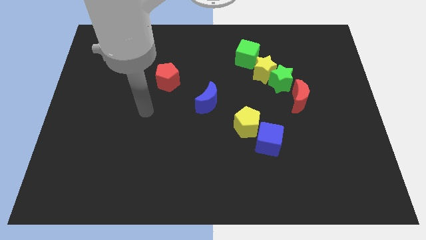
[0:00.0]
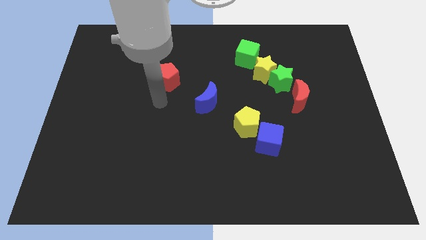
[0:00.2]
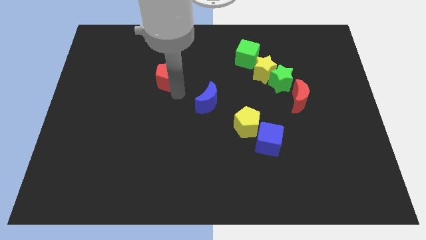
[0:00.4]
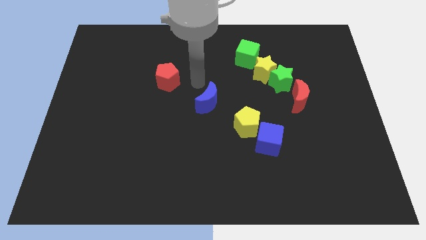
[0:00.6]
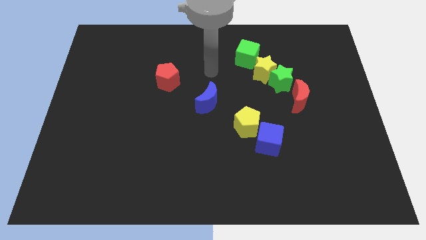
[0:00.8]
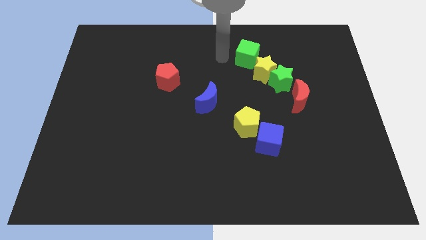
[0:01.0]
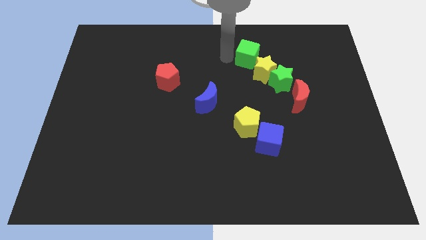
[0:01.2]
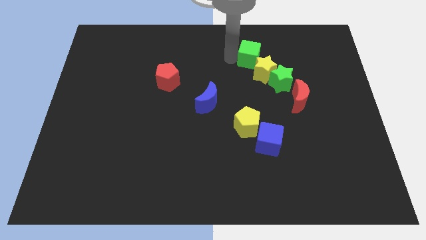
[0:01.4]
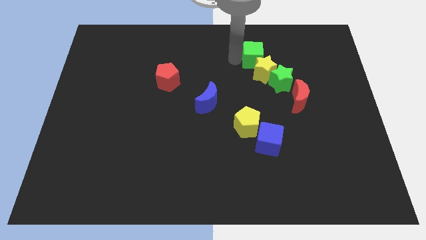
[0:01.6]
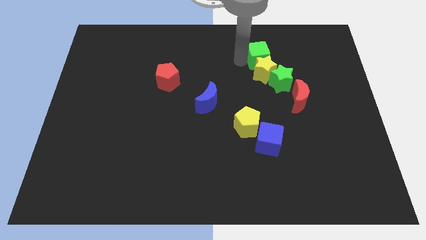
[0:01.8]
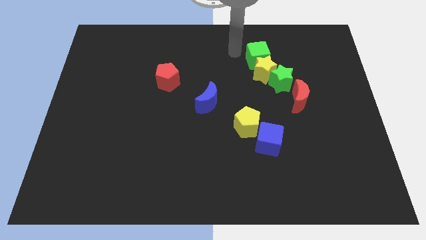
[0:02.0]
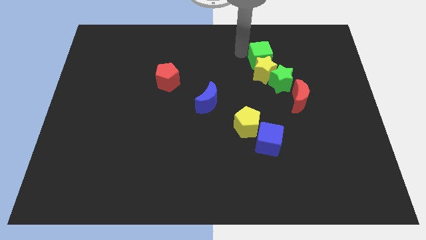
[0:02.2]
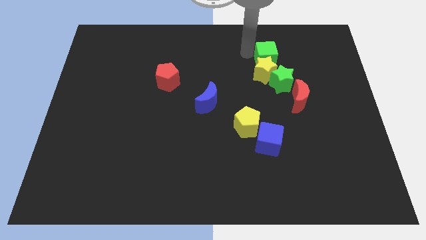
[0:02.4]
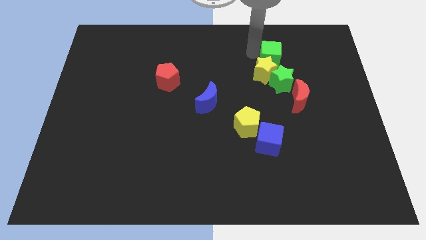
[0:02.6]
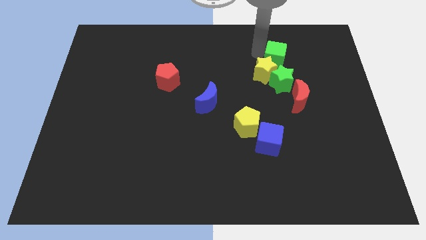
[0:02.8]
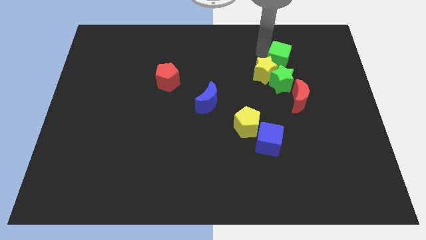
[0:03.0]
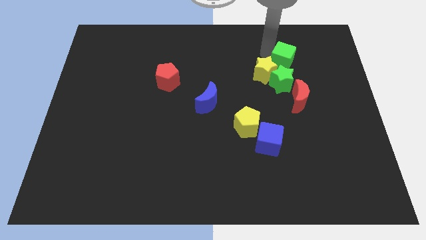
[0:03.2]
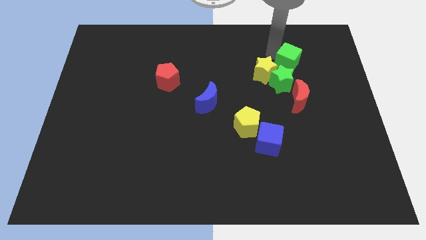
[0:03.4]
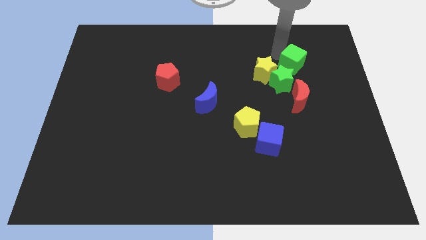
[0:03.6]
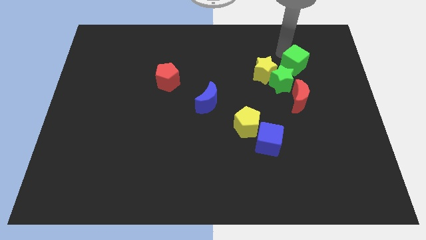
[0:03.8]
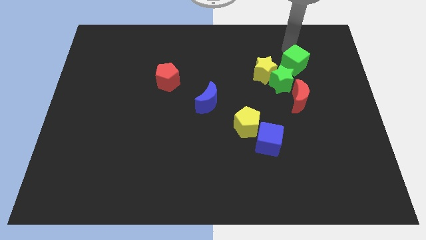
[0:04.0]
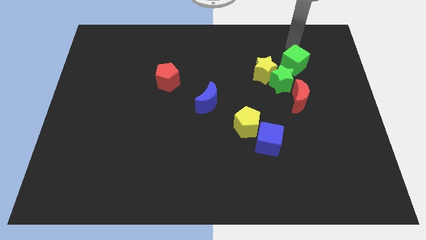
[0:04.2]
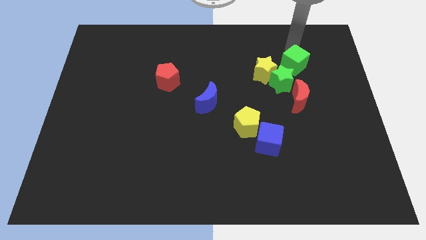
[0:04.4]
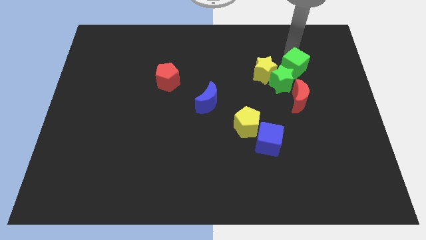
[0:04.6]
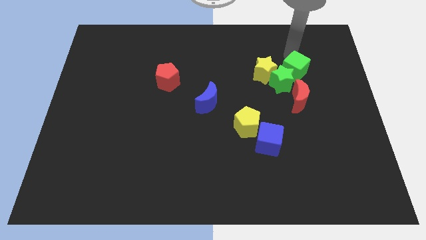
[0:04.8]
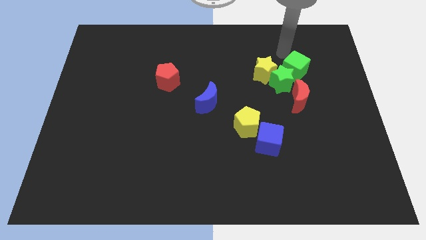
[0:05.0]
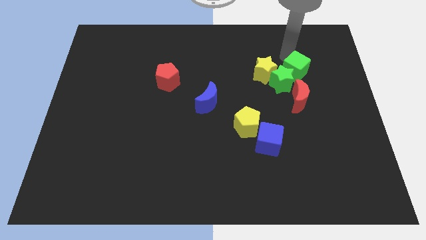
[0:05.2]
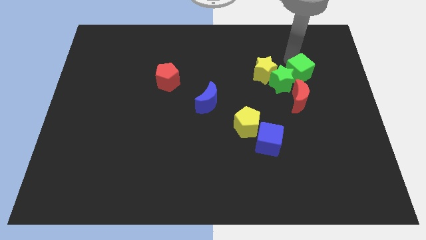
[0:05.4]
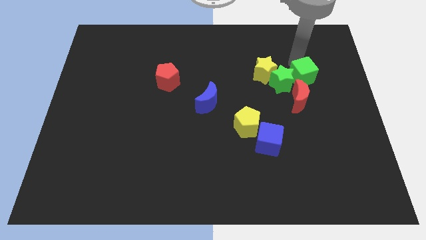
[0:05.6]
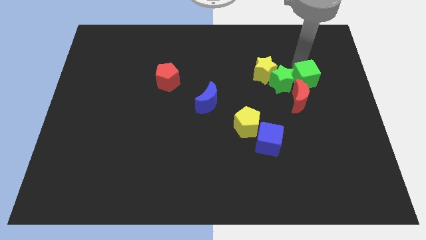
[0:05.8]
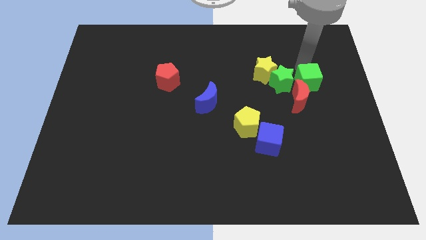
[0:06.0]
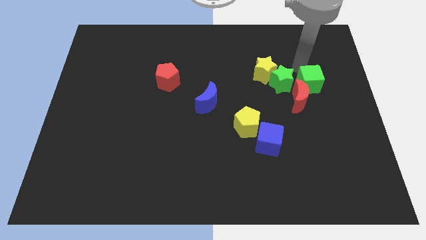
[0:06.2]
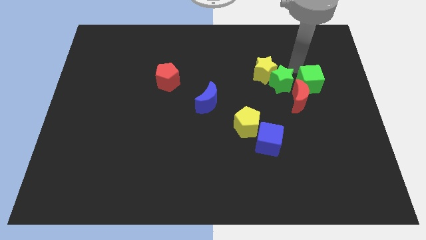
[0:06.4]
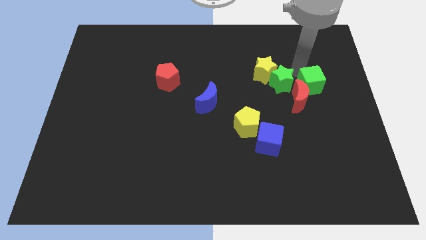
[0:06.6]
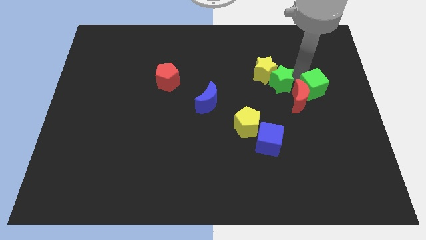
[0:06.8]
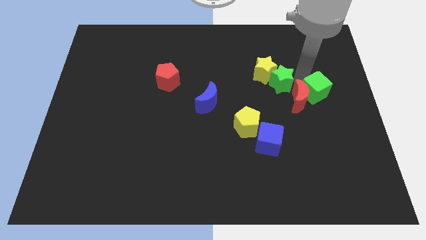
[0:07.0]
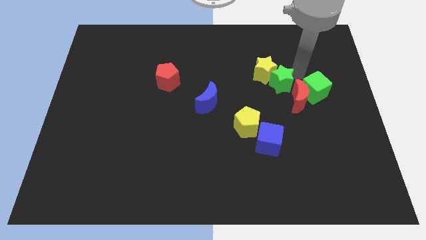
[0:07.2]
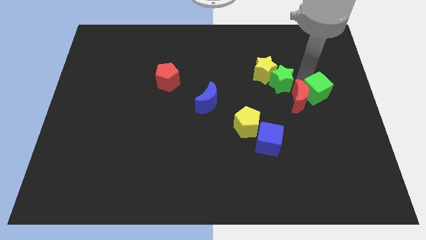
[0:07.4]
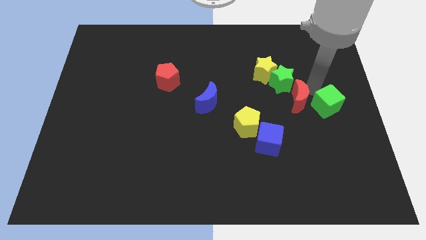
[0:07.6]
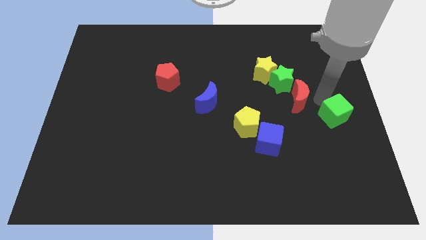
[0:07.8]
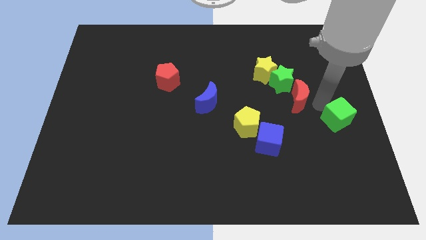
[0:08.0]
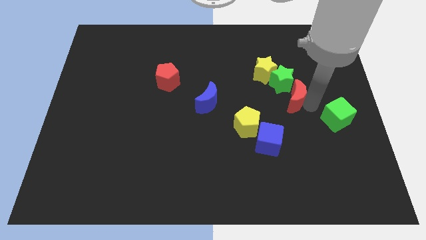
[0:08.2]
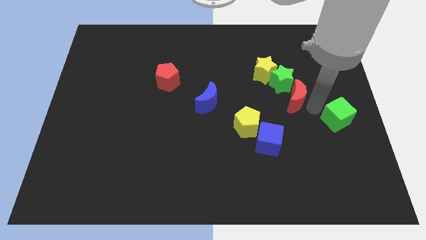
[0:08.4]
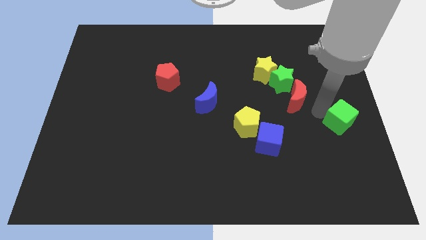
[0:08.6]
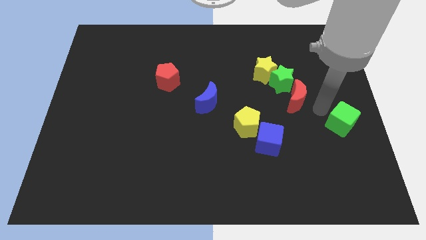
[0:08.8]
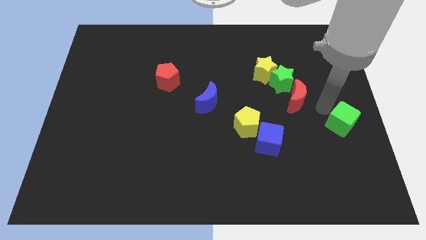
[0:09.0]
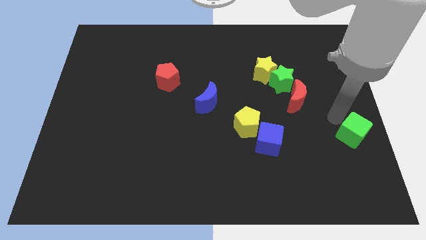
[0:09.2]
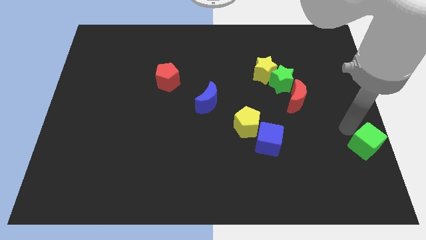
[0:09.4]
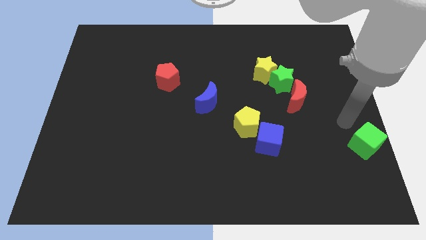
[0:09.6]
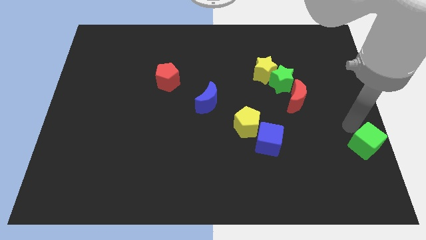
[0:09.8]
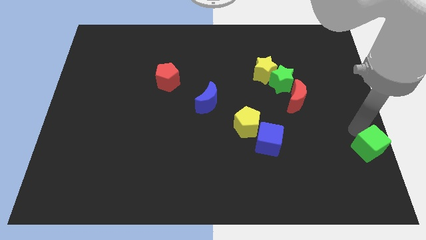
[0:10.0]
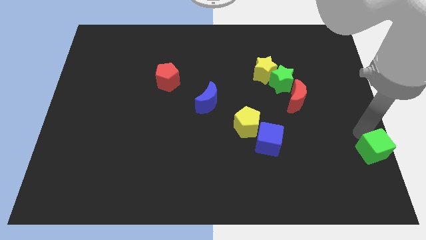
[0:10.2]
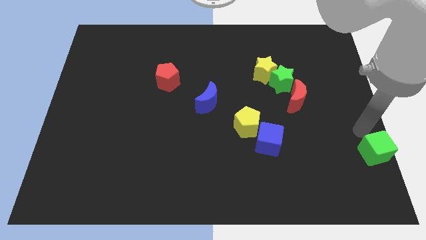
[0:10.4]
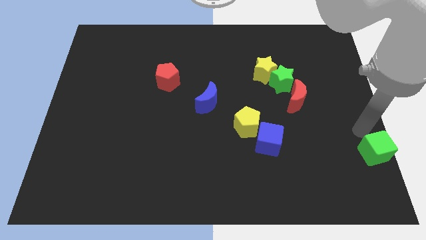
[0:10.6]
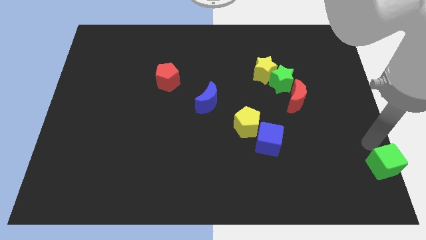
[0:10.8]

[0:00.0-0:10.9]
push the green cube to the bottom right corner

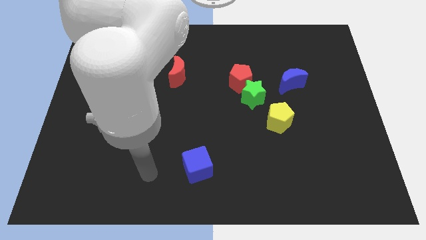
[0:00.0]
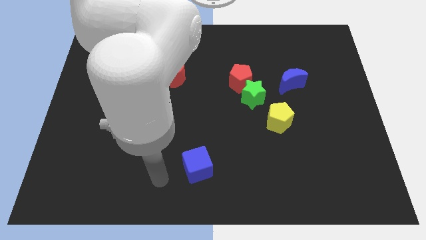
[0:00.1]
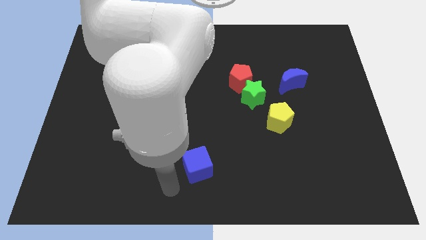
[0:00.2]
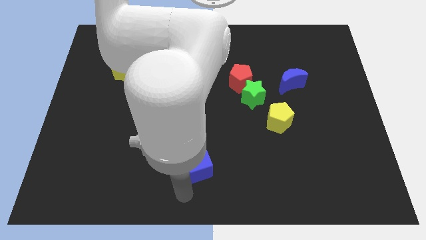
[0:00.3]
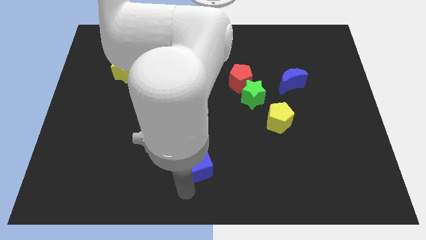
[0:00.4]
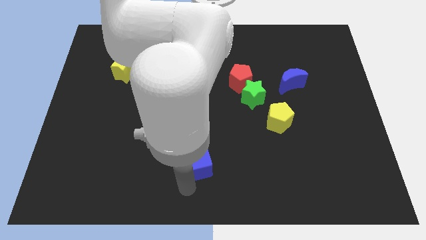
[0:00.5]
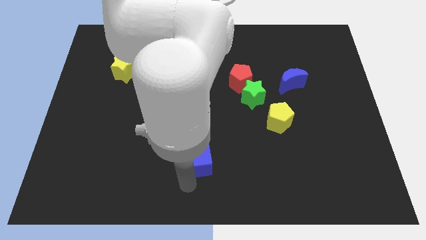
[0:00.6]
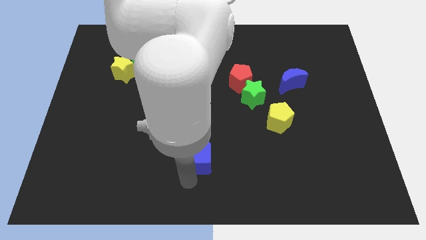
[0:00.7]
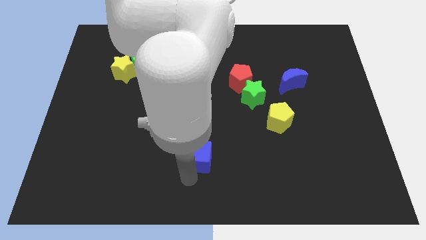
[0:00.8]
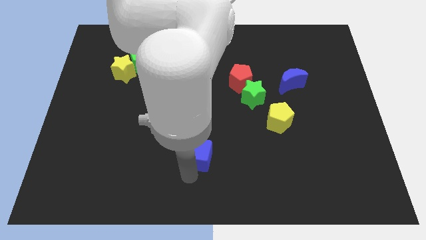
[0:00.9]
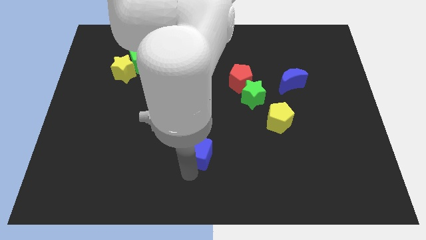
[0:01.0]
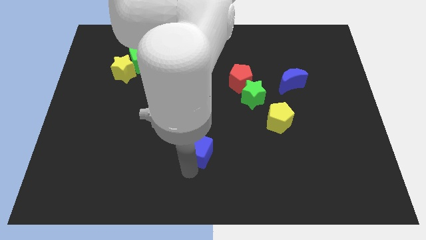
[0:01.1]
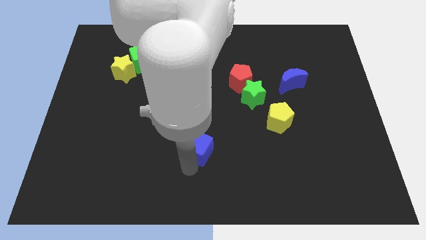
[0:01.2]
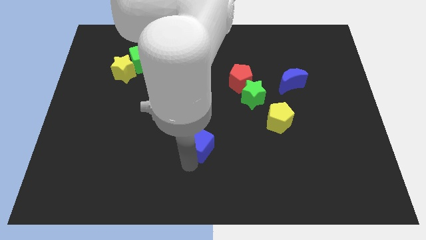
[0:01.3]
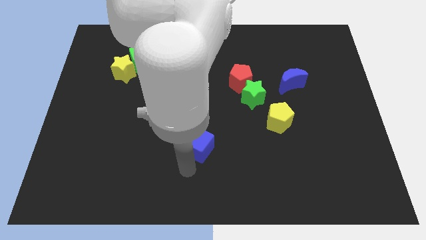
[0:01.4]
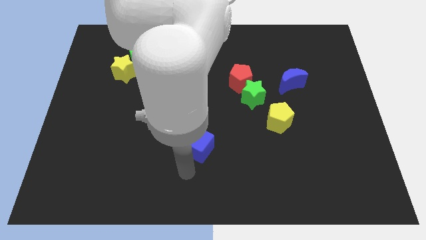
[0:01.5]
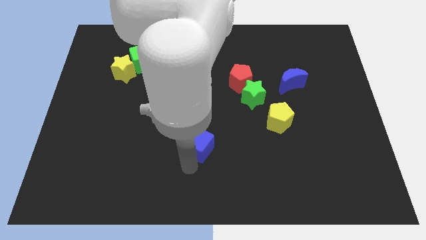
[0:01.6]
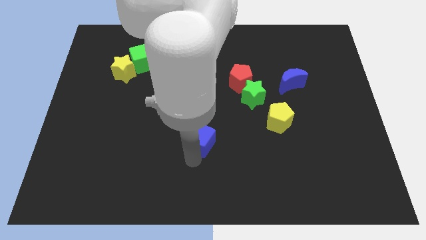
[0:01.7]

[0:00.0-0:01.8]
move the blue cube to the middle

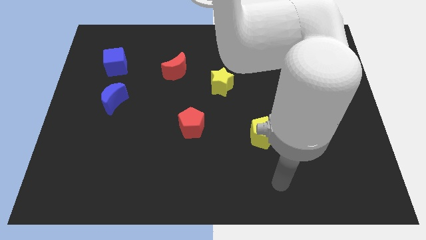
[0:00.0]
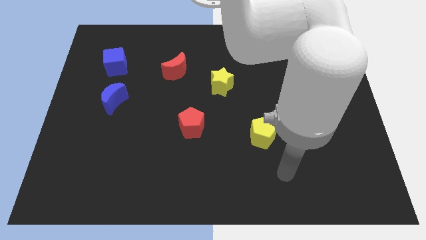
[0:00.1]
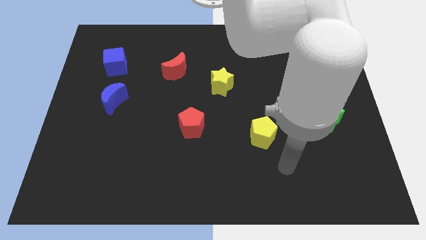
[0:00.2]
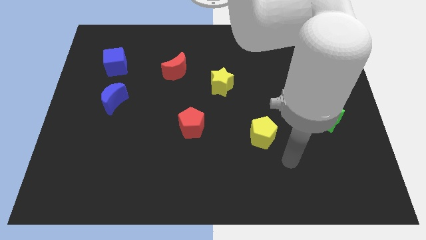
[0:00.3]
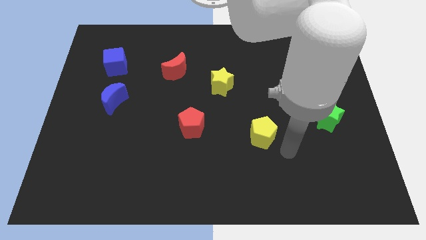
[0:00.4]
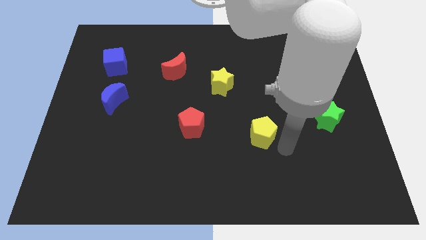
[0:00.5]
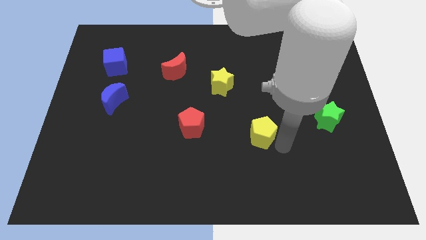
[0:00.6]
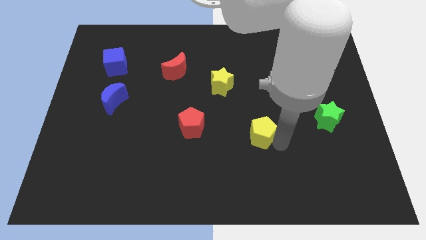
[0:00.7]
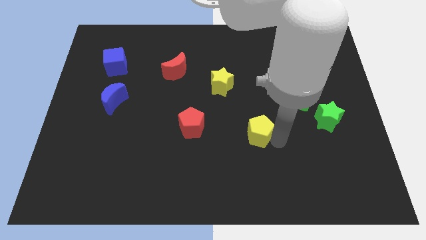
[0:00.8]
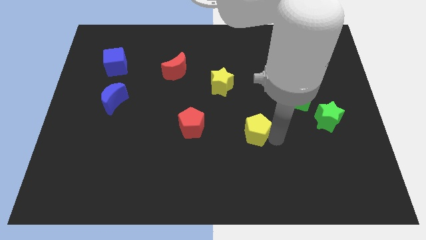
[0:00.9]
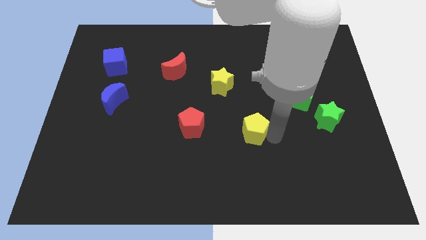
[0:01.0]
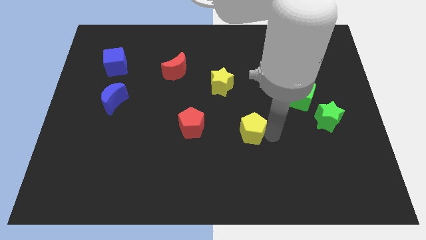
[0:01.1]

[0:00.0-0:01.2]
put the yellow pentagon to the center
